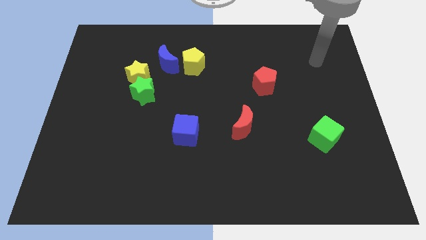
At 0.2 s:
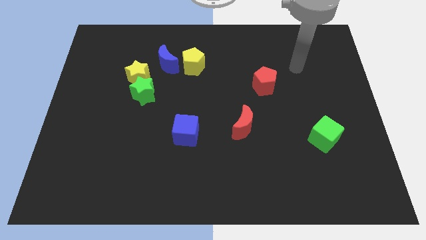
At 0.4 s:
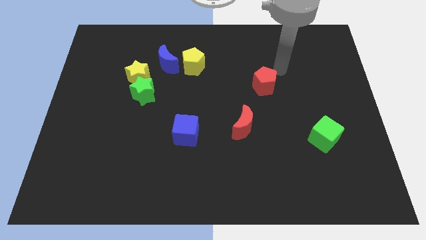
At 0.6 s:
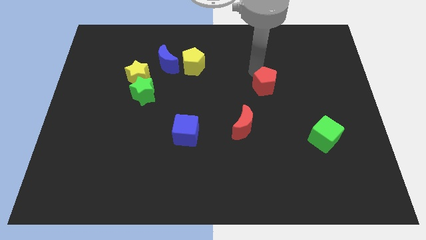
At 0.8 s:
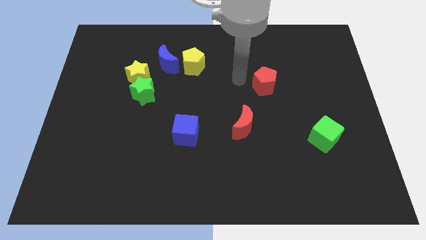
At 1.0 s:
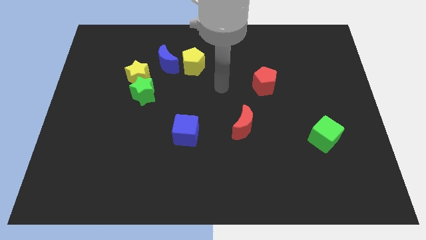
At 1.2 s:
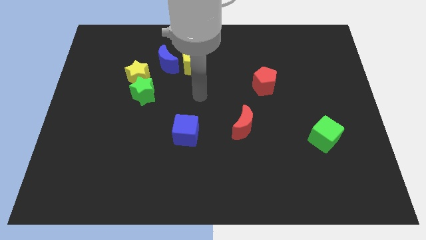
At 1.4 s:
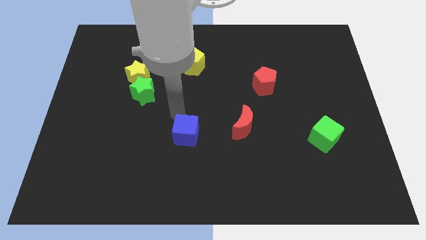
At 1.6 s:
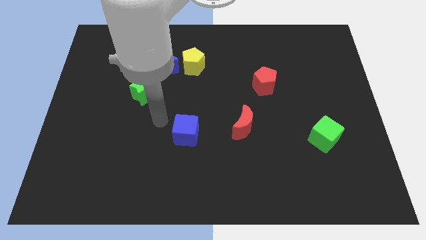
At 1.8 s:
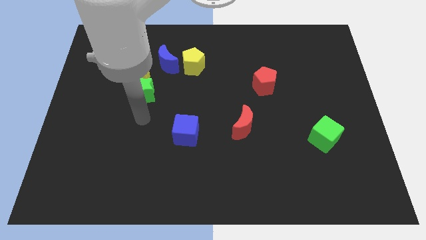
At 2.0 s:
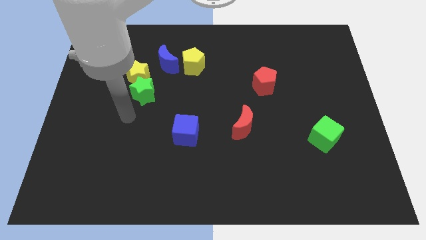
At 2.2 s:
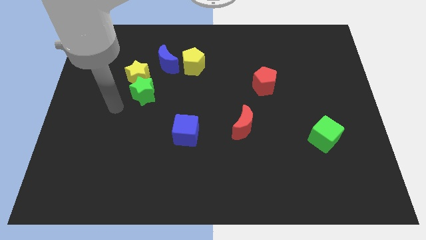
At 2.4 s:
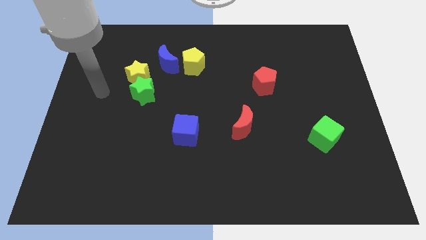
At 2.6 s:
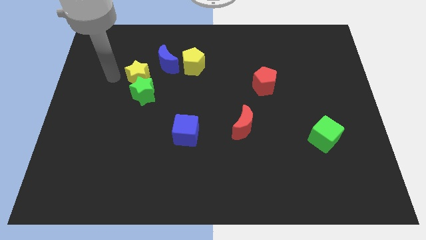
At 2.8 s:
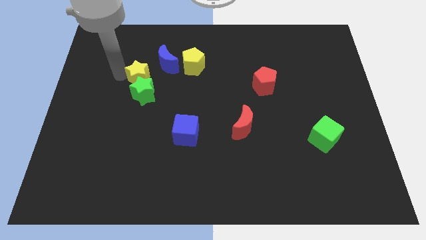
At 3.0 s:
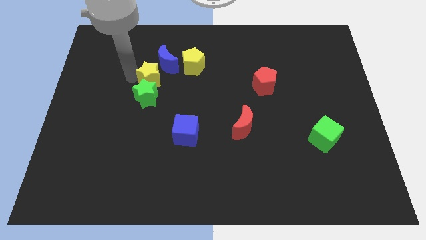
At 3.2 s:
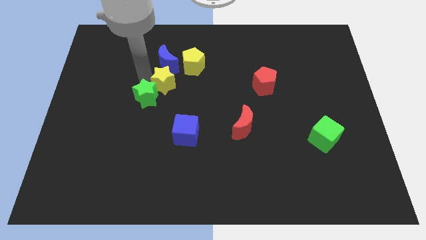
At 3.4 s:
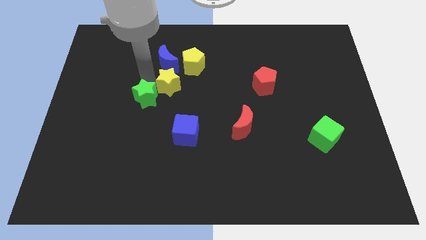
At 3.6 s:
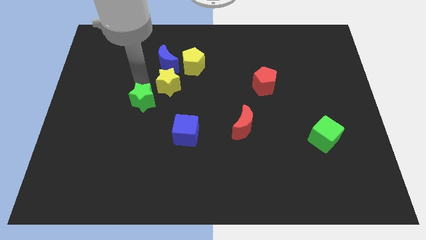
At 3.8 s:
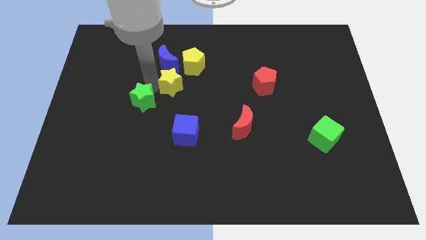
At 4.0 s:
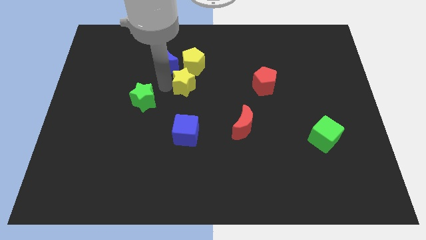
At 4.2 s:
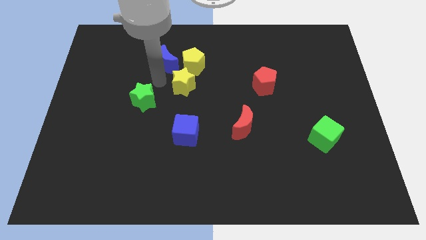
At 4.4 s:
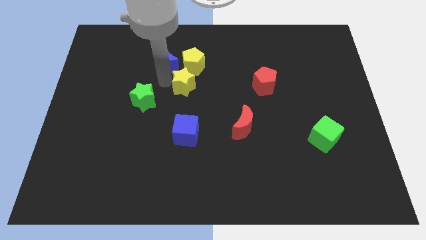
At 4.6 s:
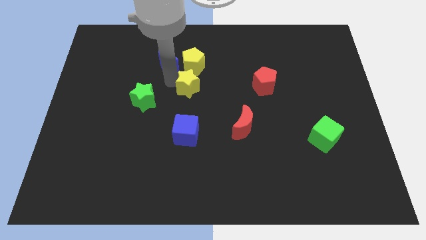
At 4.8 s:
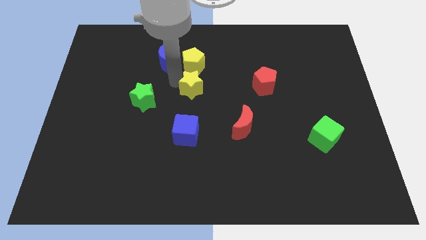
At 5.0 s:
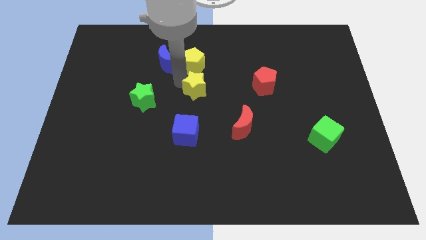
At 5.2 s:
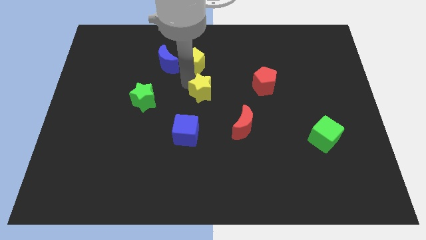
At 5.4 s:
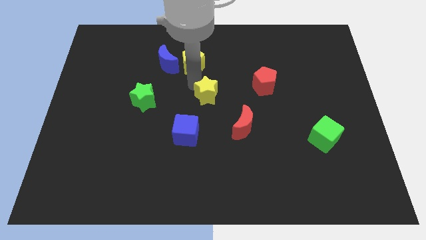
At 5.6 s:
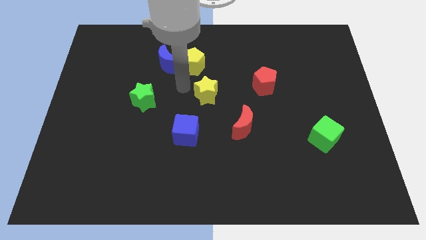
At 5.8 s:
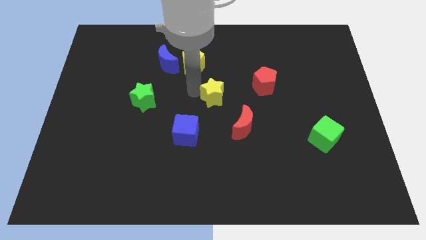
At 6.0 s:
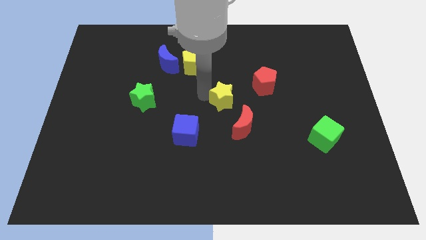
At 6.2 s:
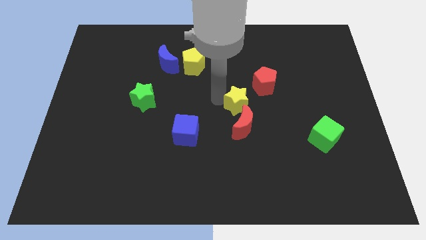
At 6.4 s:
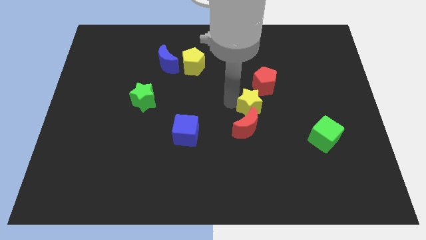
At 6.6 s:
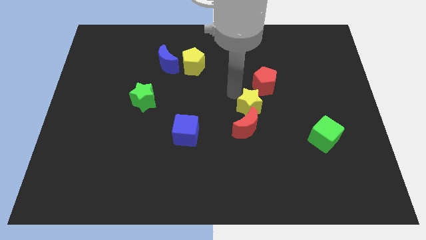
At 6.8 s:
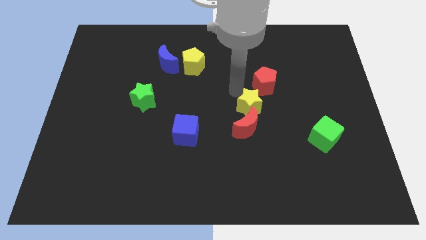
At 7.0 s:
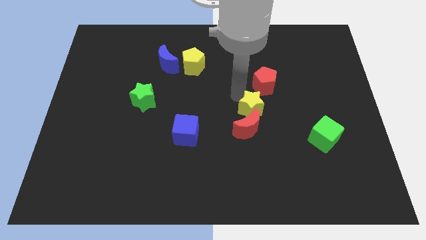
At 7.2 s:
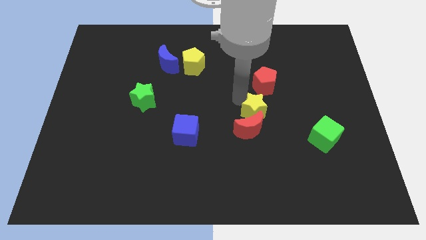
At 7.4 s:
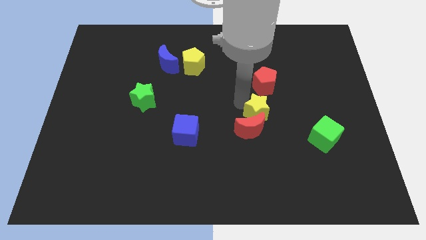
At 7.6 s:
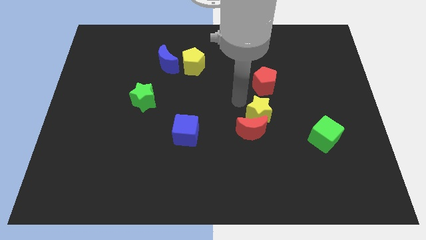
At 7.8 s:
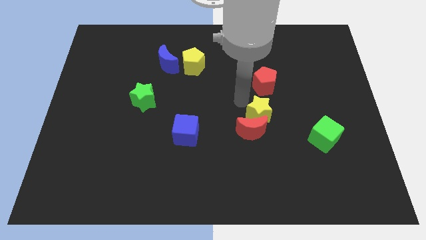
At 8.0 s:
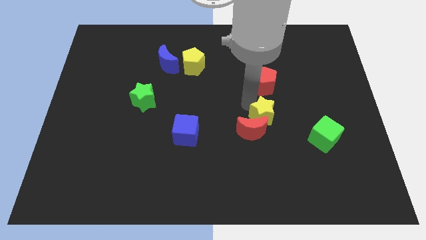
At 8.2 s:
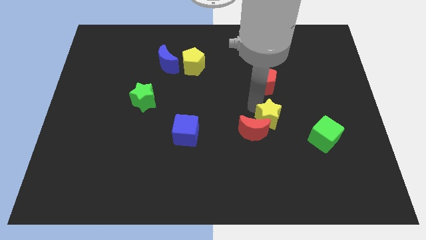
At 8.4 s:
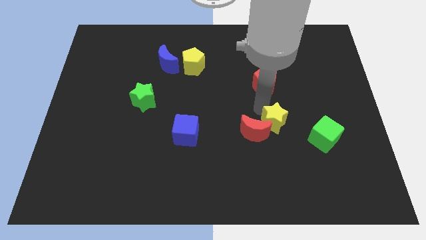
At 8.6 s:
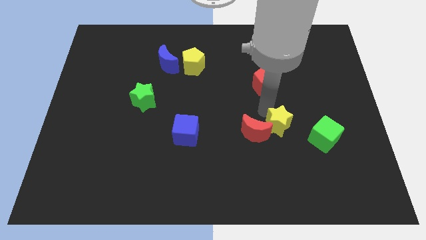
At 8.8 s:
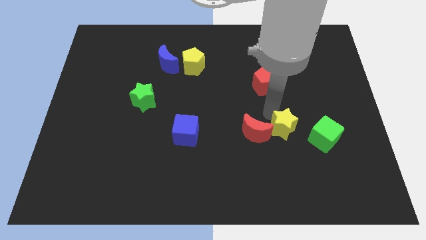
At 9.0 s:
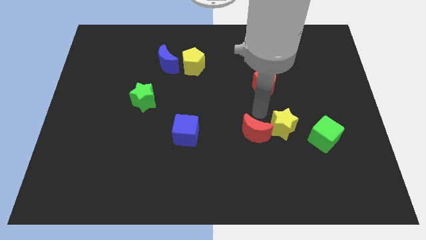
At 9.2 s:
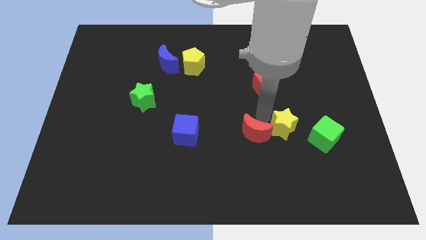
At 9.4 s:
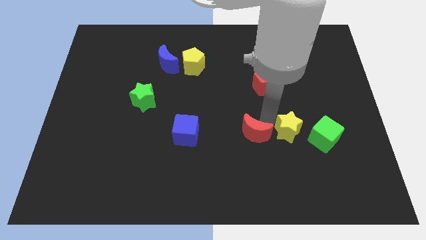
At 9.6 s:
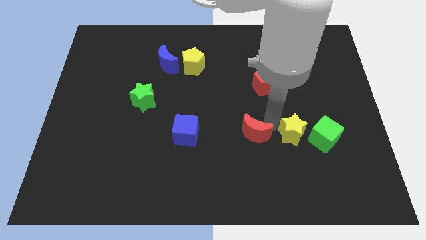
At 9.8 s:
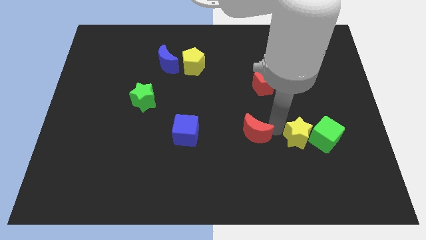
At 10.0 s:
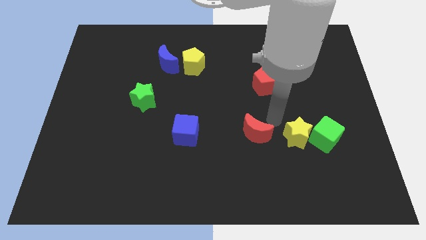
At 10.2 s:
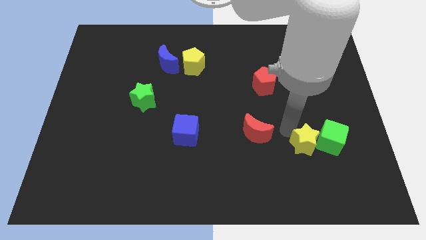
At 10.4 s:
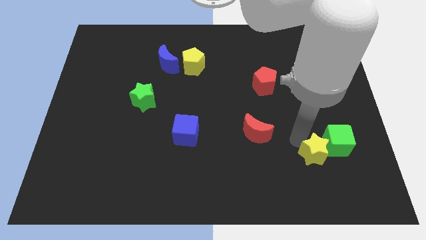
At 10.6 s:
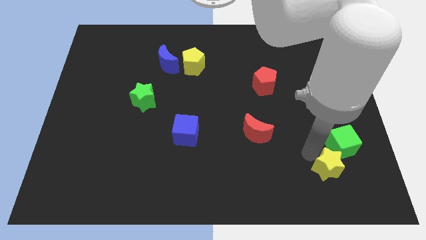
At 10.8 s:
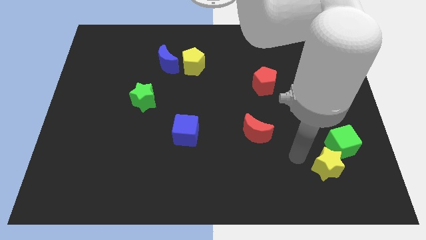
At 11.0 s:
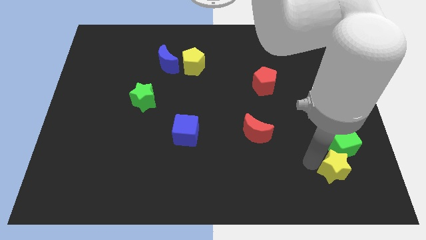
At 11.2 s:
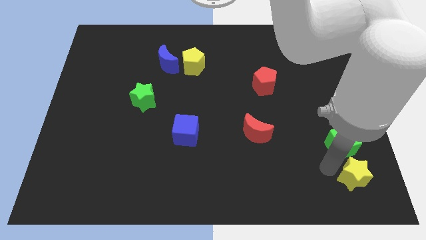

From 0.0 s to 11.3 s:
move the yellow star to the bottom right of the board

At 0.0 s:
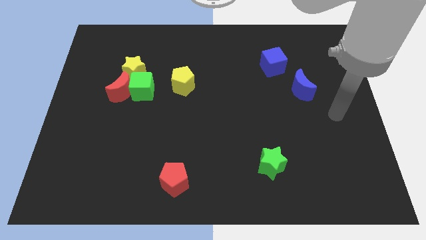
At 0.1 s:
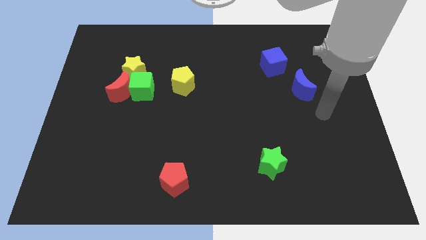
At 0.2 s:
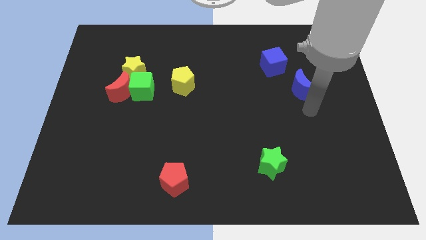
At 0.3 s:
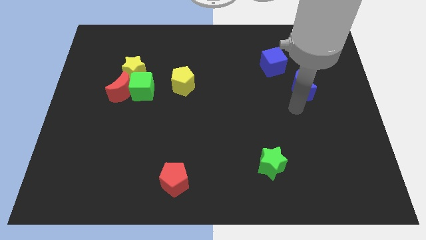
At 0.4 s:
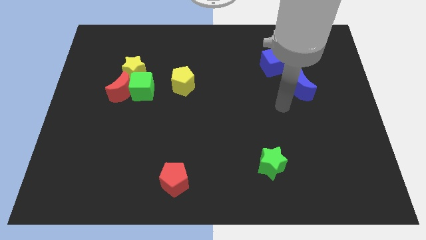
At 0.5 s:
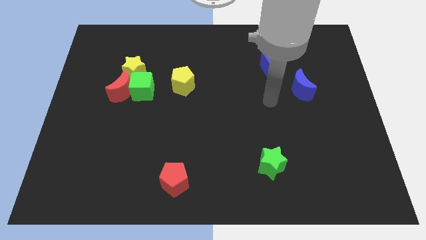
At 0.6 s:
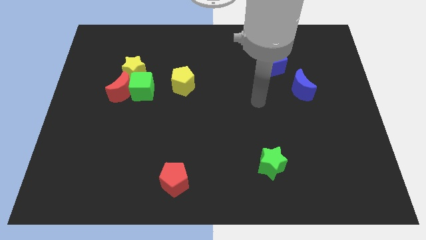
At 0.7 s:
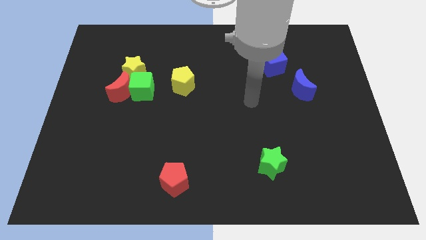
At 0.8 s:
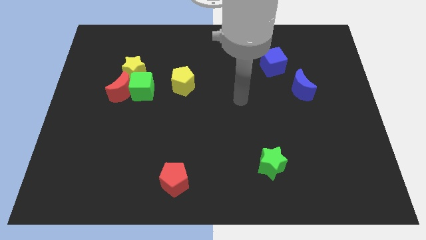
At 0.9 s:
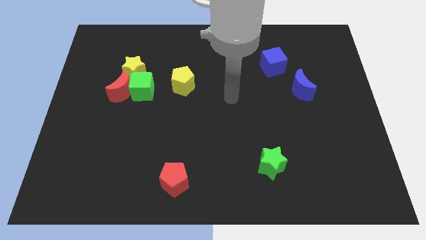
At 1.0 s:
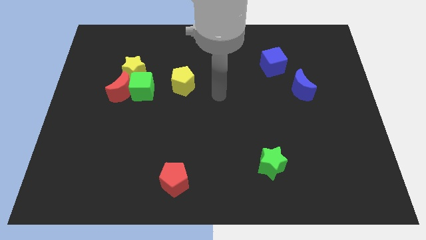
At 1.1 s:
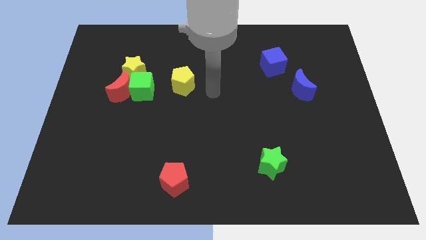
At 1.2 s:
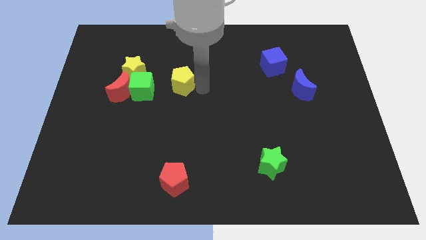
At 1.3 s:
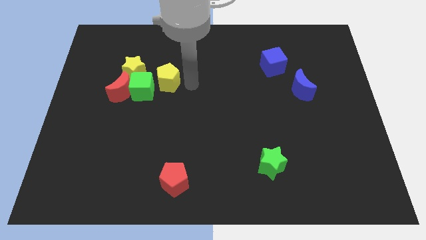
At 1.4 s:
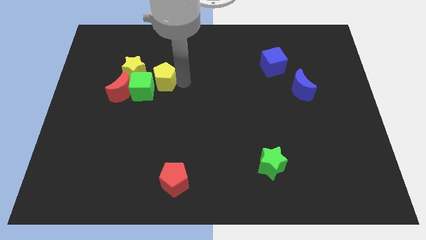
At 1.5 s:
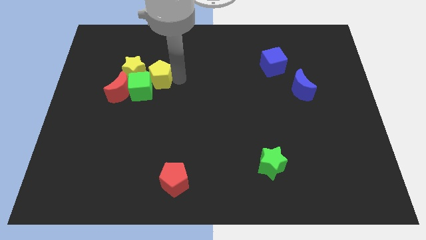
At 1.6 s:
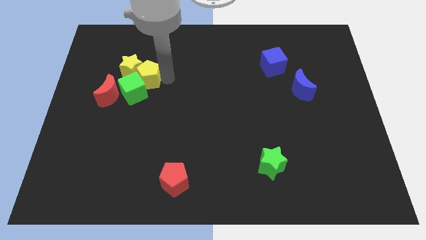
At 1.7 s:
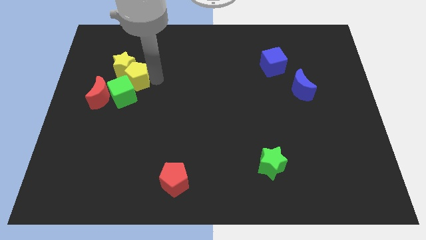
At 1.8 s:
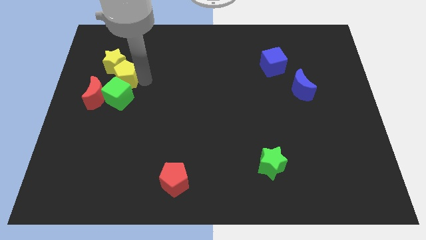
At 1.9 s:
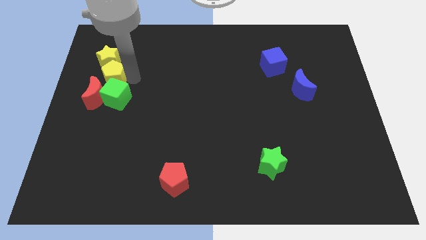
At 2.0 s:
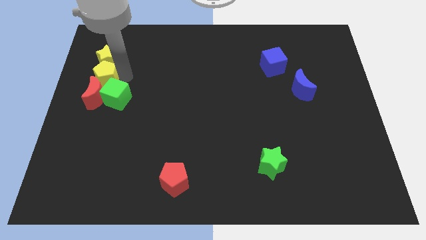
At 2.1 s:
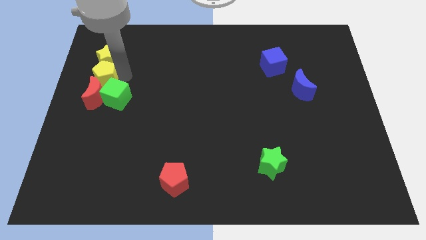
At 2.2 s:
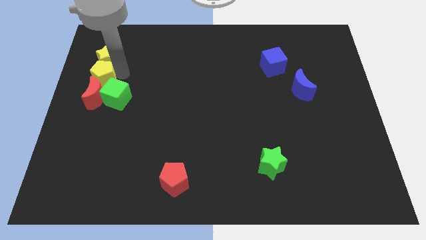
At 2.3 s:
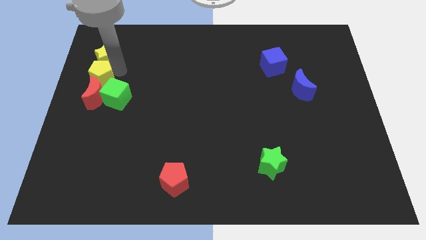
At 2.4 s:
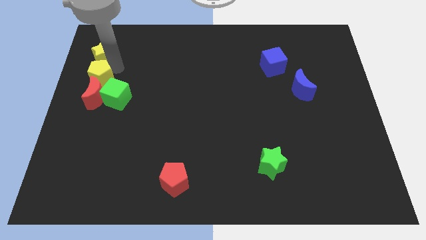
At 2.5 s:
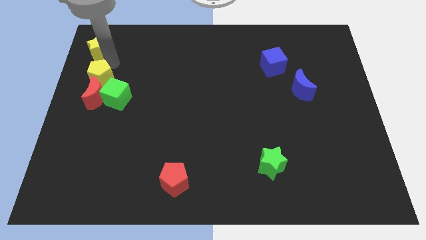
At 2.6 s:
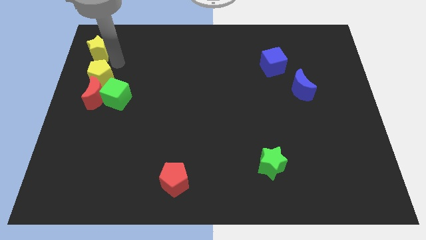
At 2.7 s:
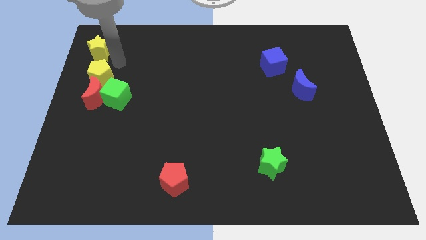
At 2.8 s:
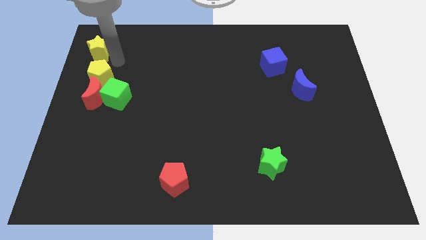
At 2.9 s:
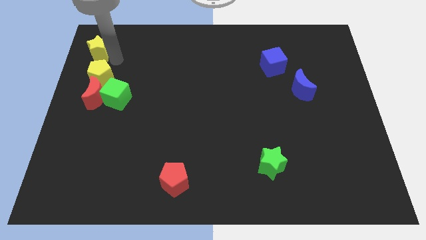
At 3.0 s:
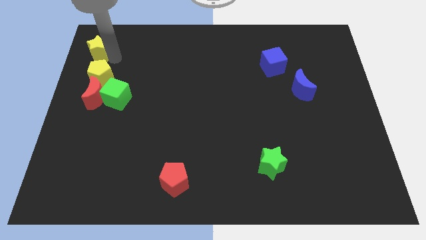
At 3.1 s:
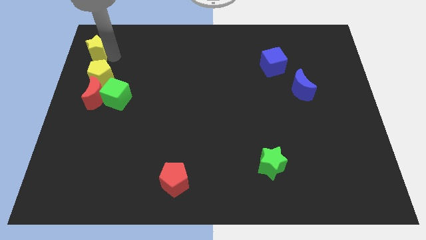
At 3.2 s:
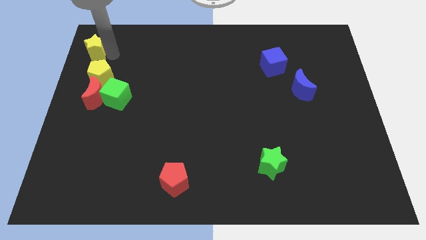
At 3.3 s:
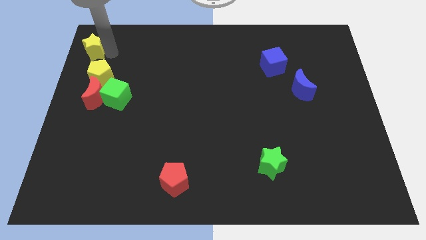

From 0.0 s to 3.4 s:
put the yellow star to the top left
